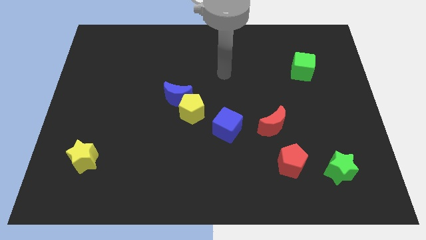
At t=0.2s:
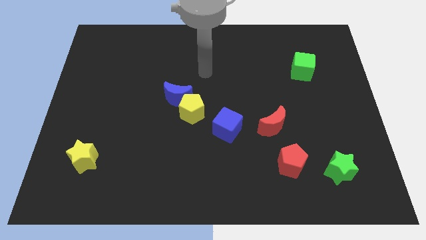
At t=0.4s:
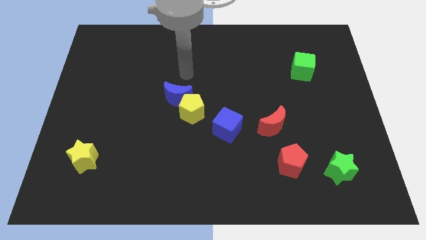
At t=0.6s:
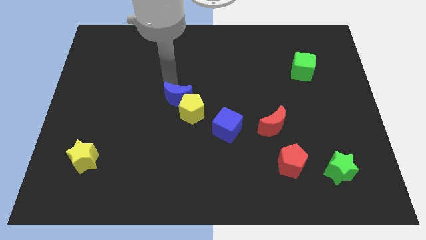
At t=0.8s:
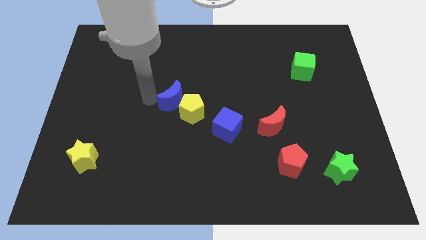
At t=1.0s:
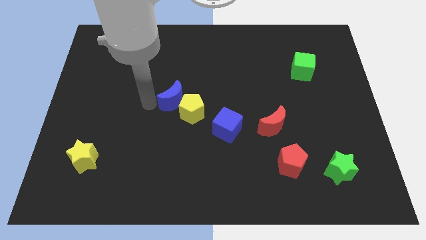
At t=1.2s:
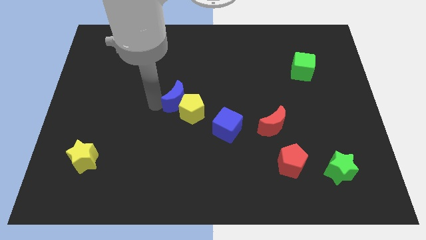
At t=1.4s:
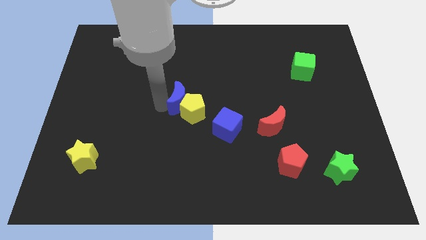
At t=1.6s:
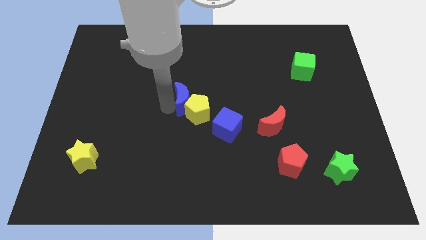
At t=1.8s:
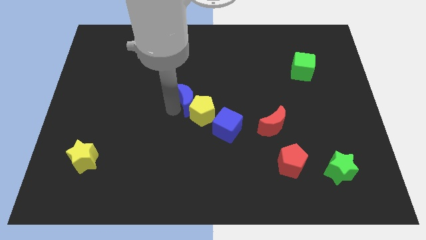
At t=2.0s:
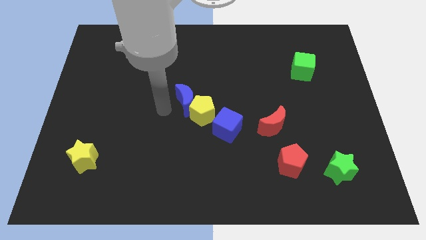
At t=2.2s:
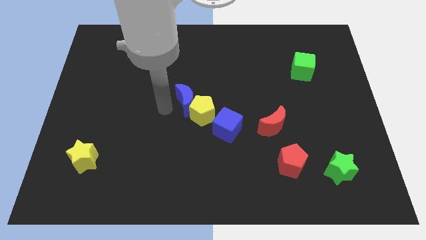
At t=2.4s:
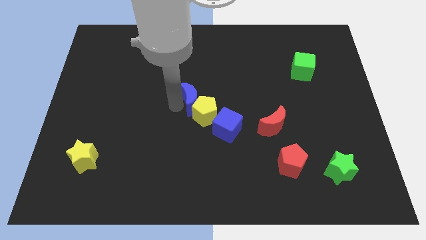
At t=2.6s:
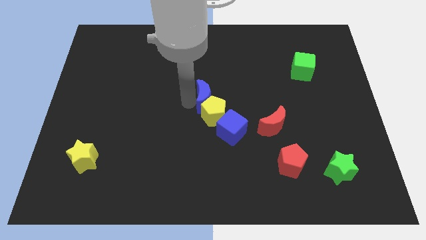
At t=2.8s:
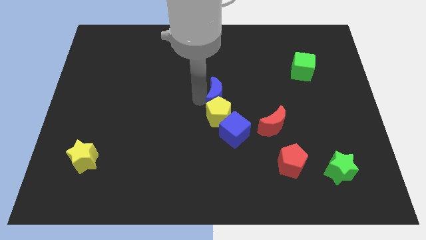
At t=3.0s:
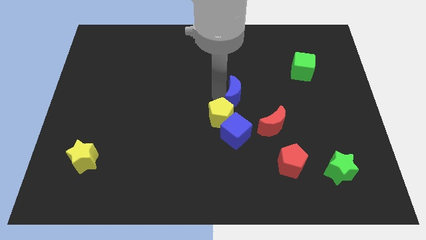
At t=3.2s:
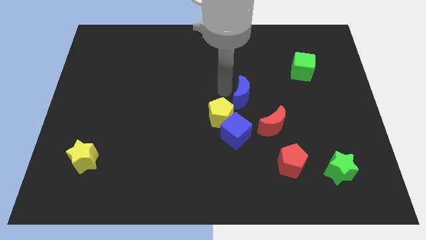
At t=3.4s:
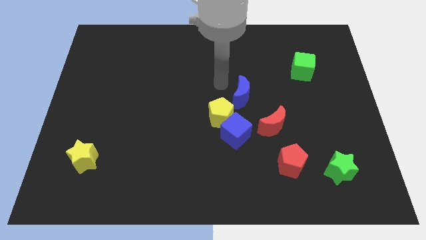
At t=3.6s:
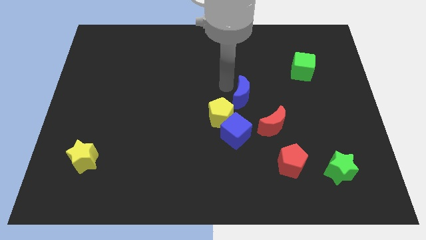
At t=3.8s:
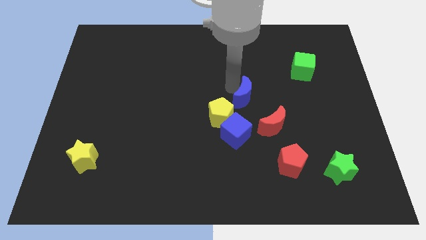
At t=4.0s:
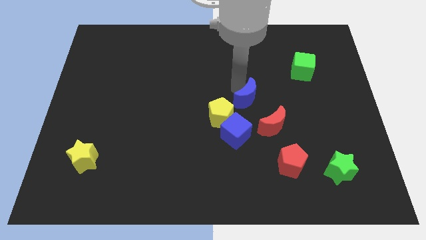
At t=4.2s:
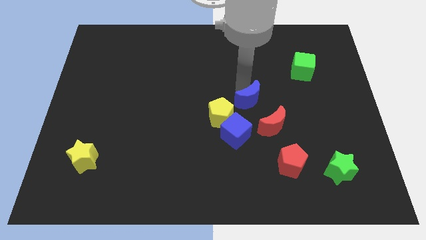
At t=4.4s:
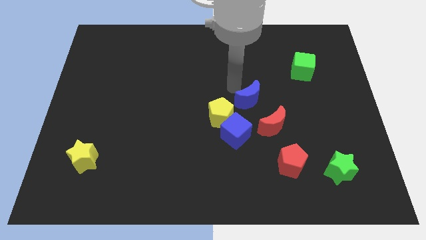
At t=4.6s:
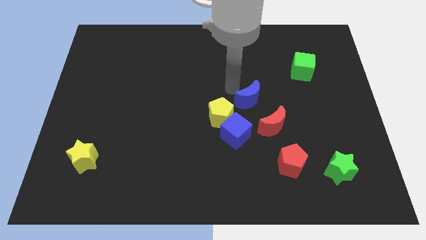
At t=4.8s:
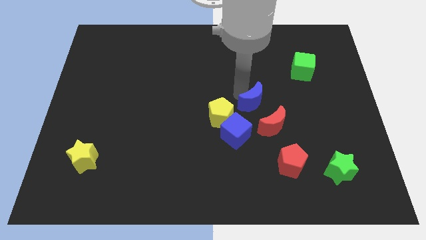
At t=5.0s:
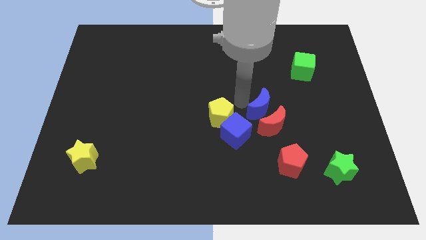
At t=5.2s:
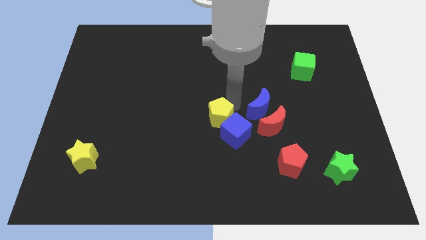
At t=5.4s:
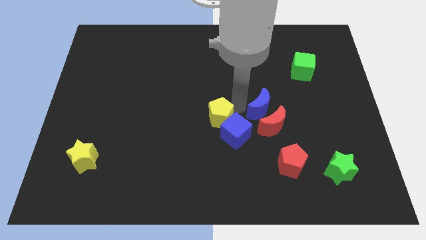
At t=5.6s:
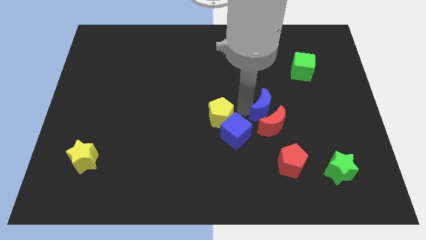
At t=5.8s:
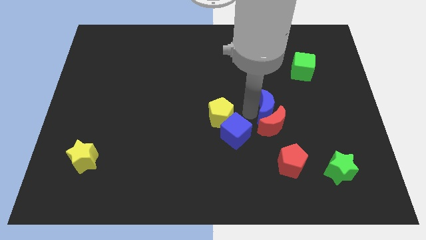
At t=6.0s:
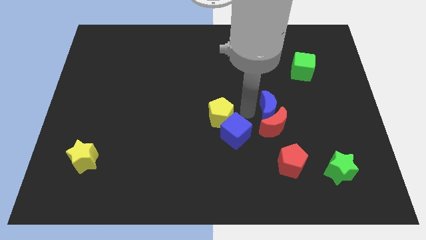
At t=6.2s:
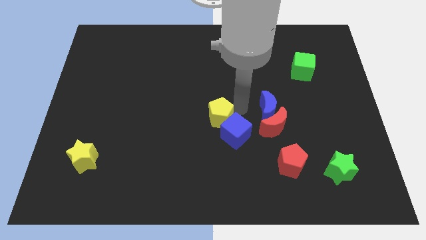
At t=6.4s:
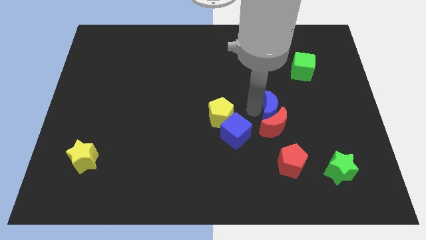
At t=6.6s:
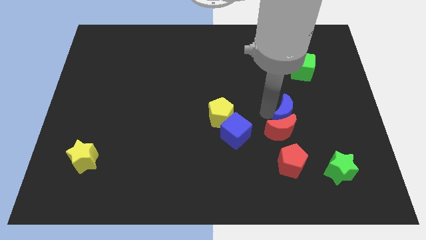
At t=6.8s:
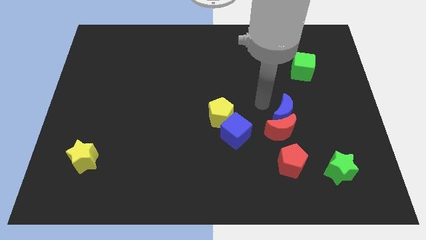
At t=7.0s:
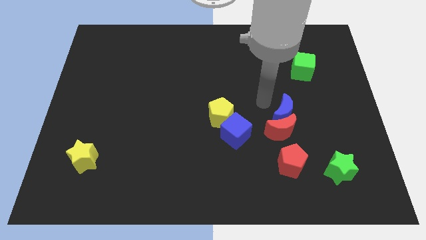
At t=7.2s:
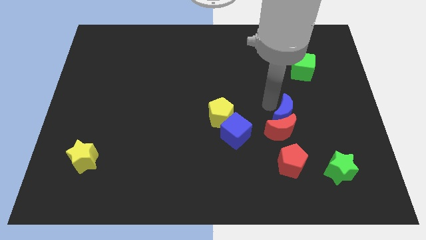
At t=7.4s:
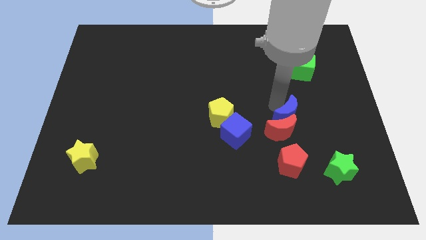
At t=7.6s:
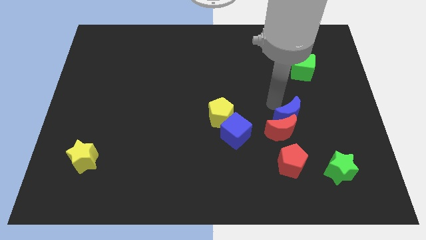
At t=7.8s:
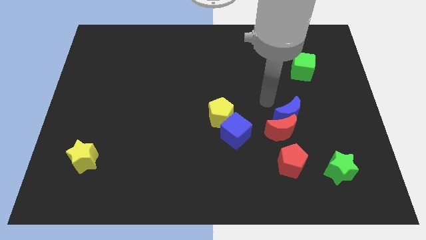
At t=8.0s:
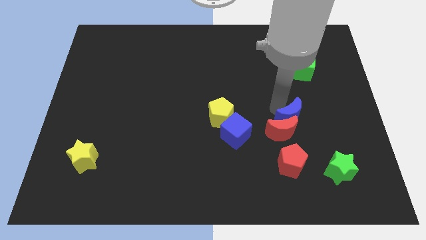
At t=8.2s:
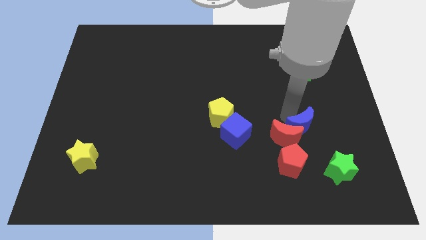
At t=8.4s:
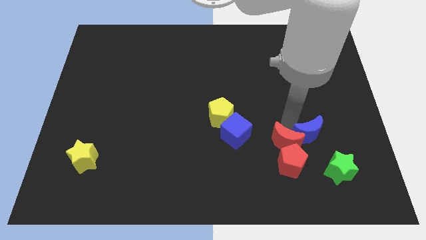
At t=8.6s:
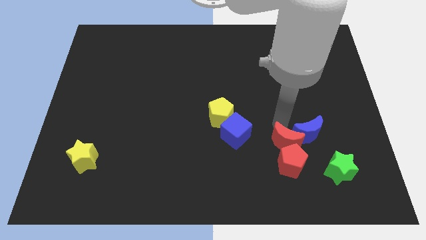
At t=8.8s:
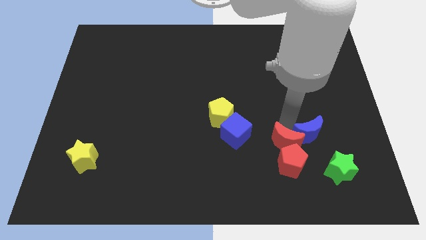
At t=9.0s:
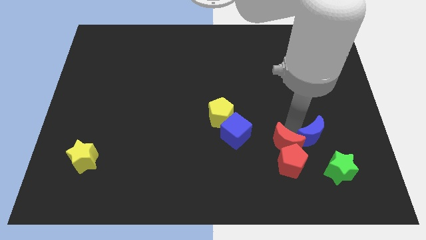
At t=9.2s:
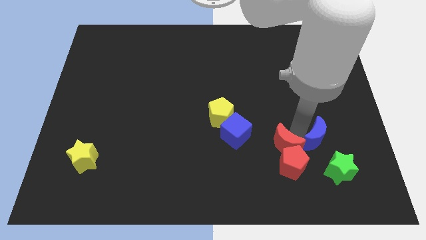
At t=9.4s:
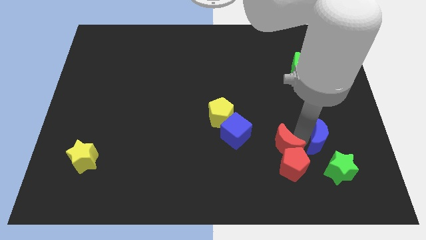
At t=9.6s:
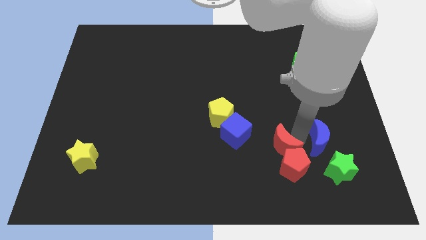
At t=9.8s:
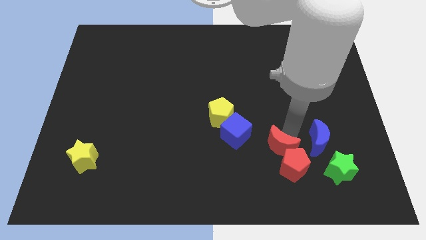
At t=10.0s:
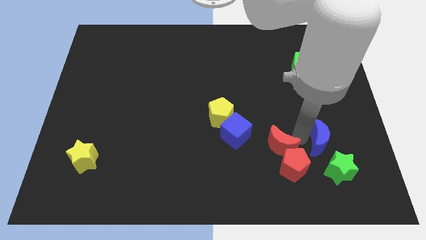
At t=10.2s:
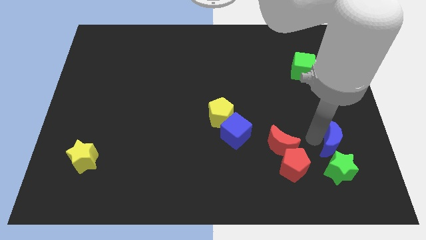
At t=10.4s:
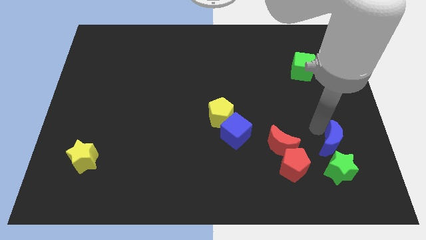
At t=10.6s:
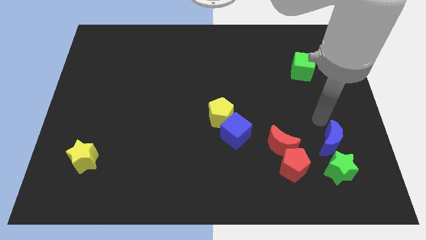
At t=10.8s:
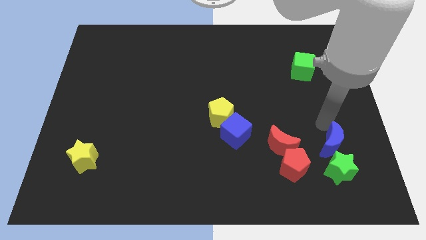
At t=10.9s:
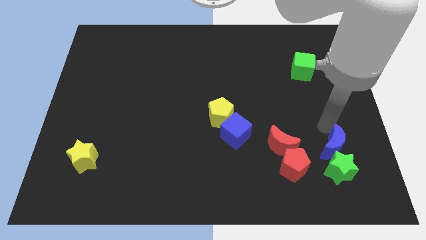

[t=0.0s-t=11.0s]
slide the blue moon just right of the red pentagon

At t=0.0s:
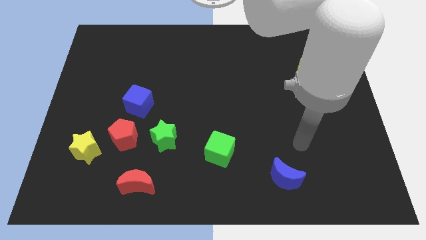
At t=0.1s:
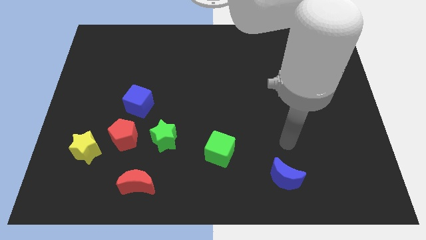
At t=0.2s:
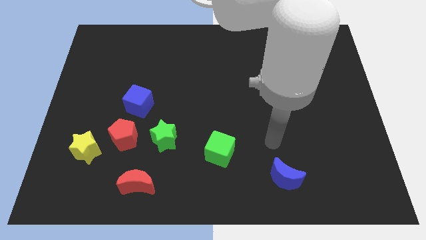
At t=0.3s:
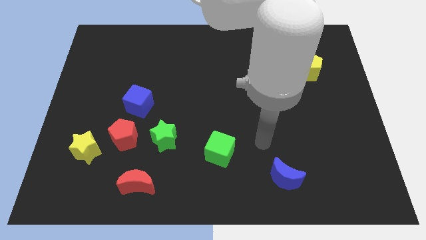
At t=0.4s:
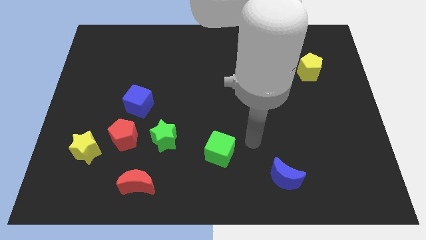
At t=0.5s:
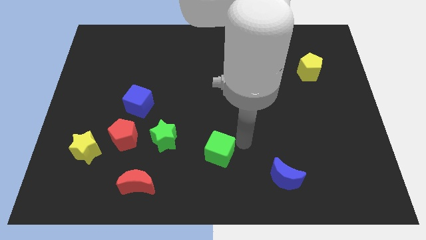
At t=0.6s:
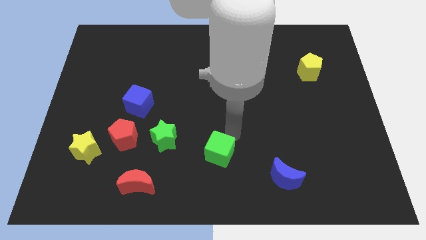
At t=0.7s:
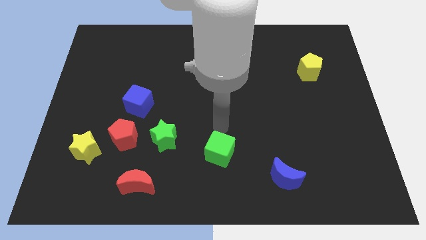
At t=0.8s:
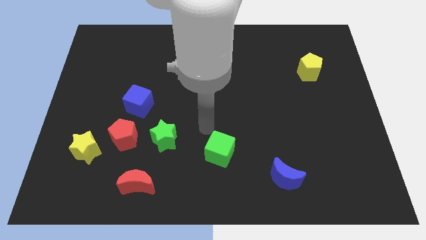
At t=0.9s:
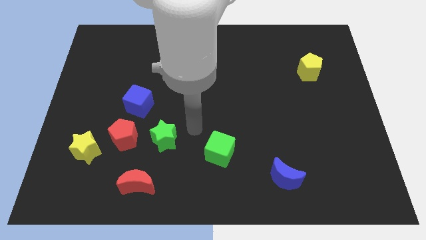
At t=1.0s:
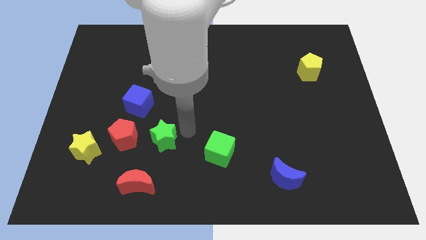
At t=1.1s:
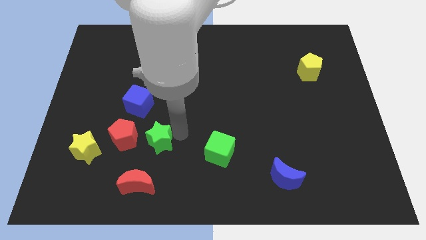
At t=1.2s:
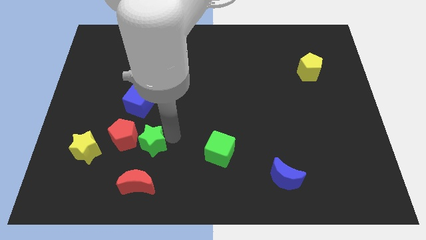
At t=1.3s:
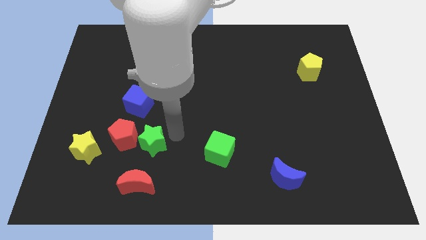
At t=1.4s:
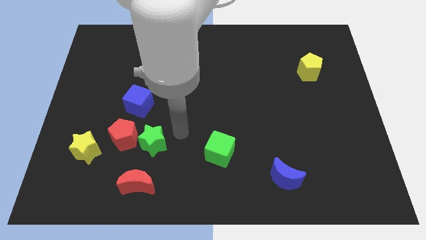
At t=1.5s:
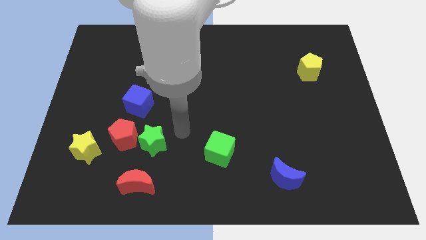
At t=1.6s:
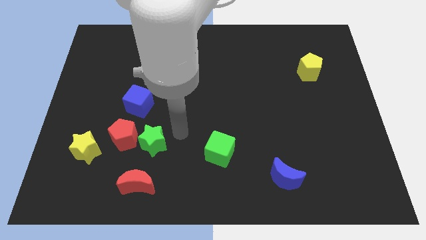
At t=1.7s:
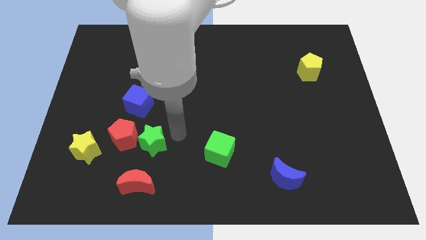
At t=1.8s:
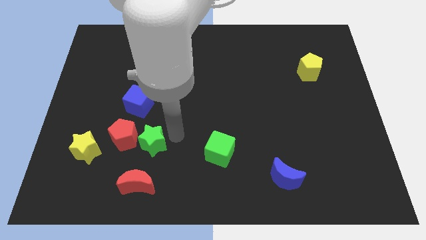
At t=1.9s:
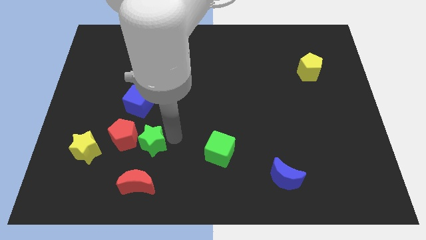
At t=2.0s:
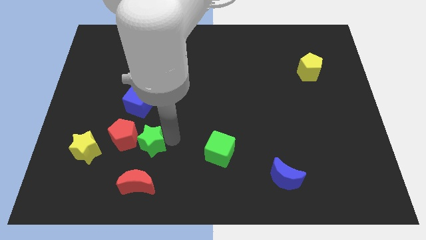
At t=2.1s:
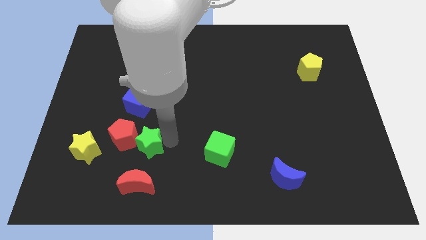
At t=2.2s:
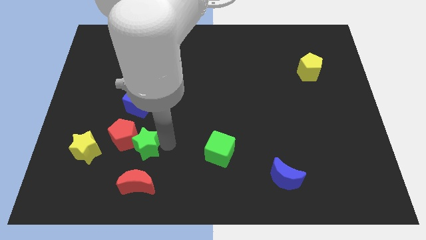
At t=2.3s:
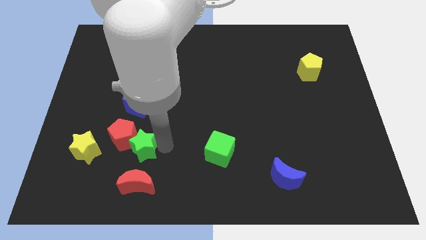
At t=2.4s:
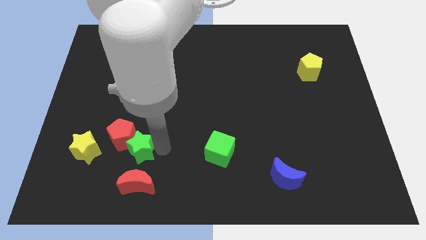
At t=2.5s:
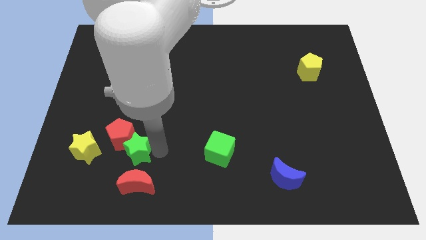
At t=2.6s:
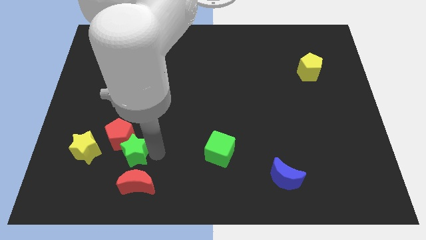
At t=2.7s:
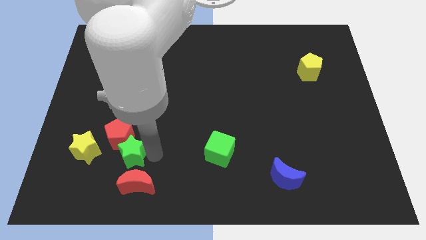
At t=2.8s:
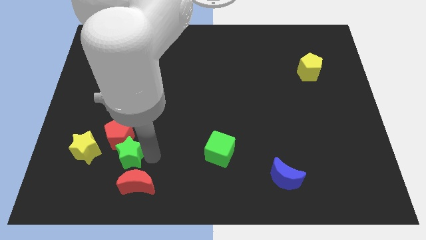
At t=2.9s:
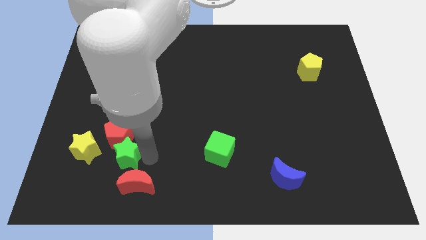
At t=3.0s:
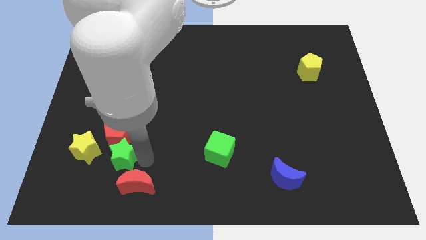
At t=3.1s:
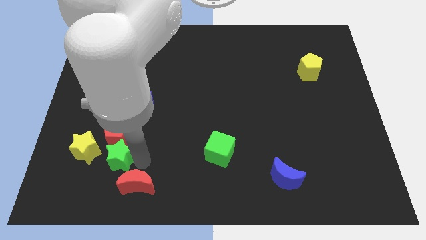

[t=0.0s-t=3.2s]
push the green star to the bottom left of the red pentagon
